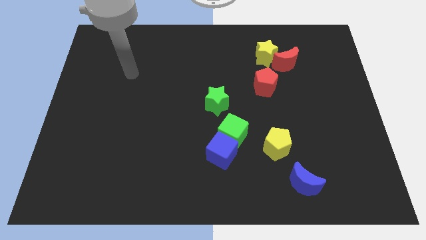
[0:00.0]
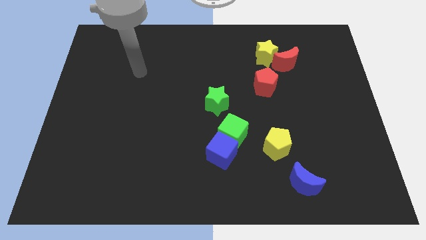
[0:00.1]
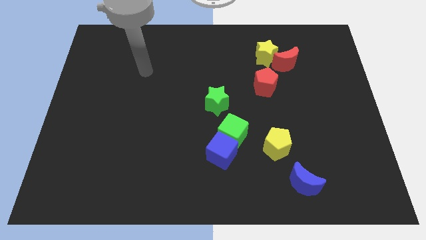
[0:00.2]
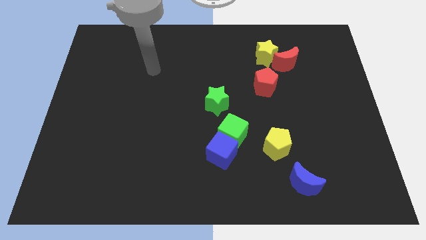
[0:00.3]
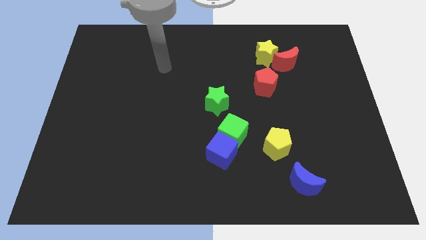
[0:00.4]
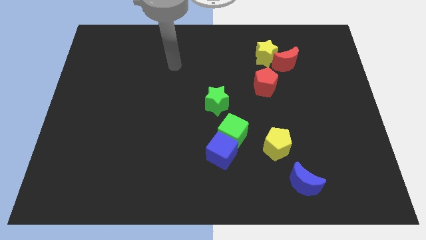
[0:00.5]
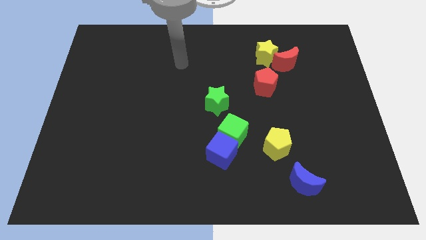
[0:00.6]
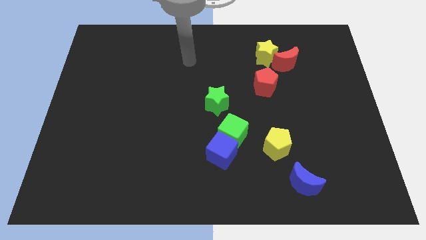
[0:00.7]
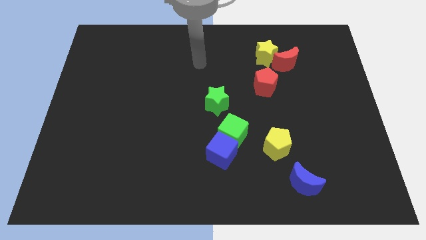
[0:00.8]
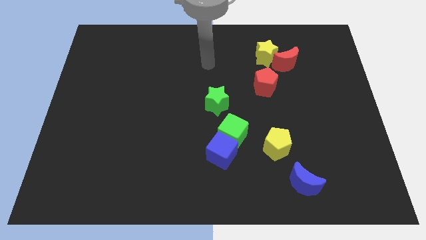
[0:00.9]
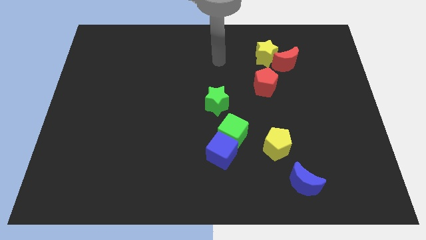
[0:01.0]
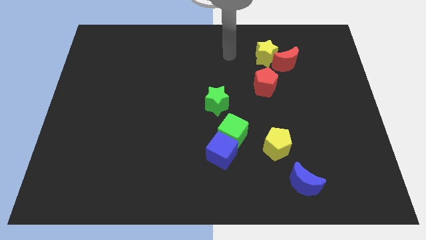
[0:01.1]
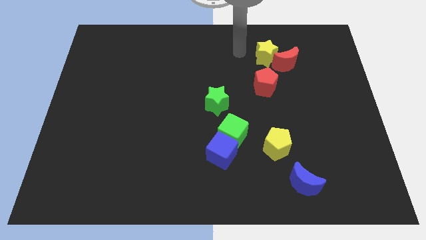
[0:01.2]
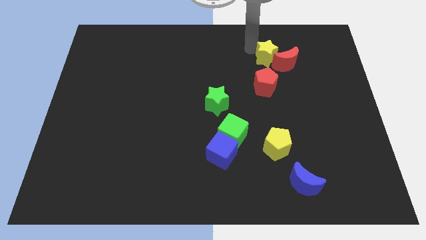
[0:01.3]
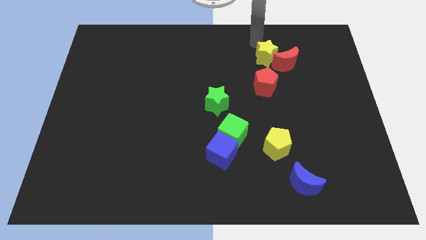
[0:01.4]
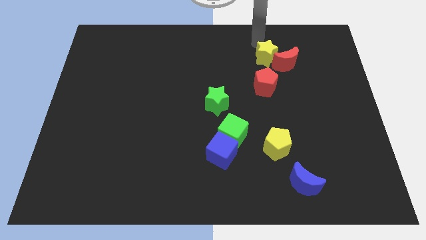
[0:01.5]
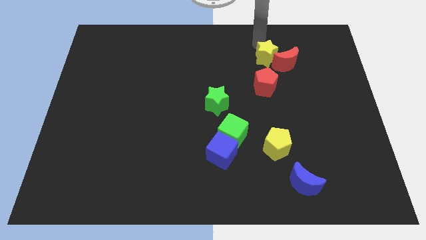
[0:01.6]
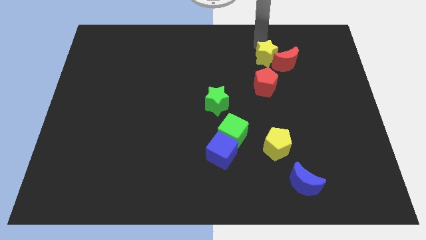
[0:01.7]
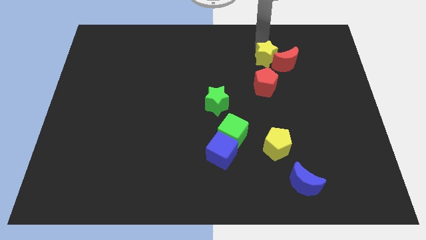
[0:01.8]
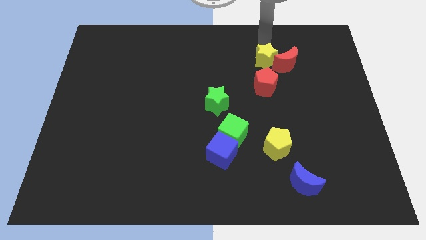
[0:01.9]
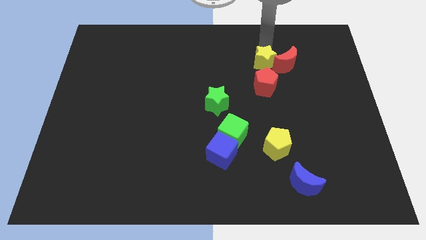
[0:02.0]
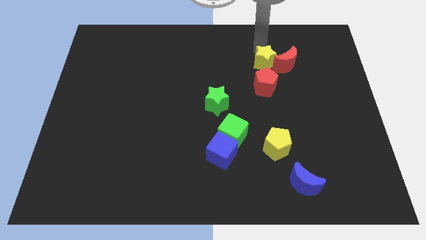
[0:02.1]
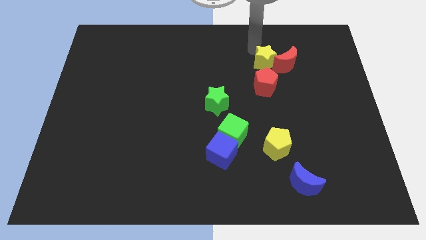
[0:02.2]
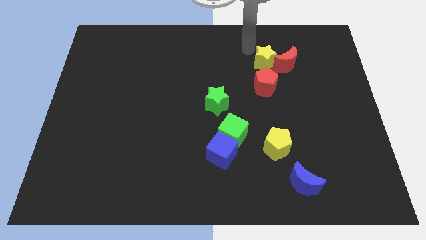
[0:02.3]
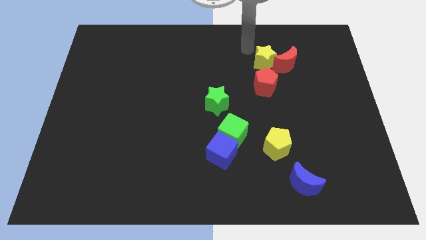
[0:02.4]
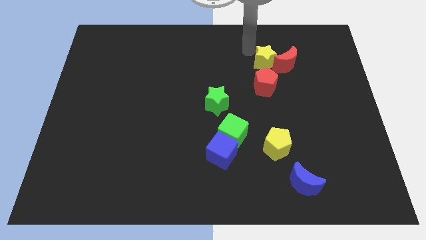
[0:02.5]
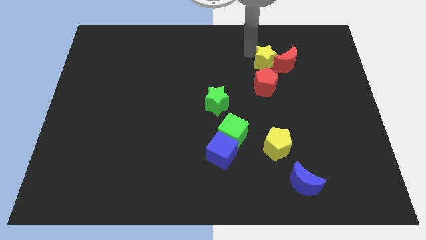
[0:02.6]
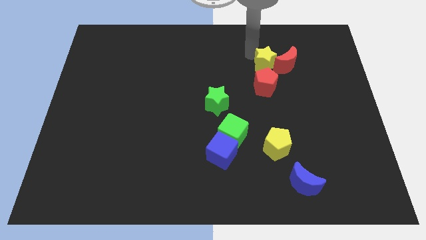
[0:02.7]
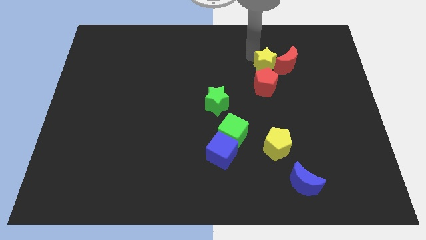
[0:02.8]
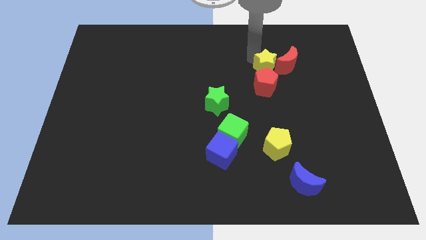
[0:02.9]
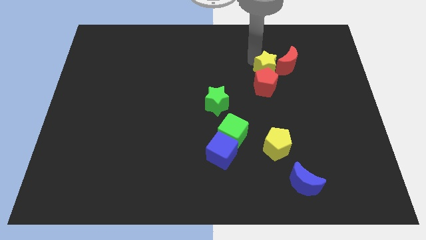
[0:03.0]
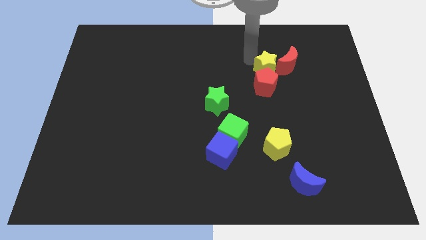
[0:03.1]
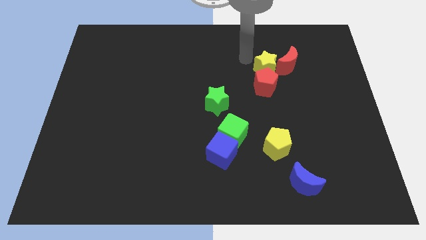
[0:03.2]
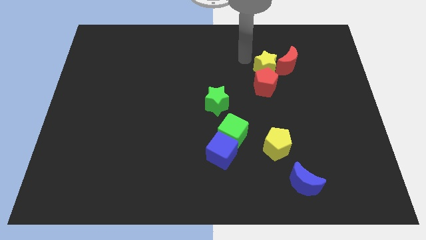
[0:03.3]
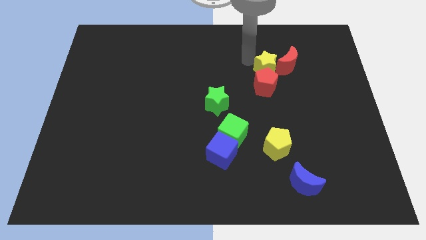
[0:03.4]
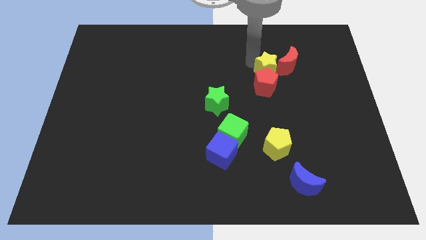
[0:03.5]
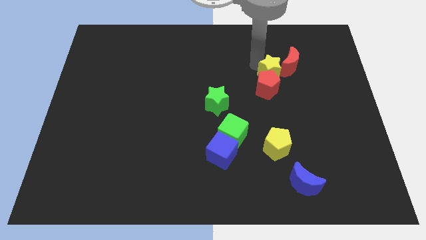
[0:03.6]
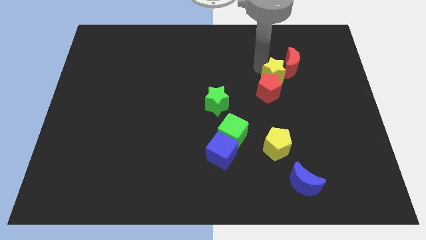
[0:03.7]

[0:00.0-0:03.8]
slightly slide the yellow star downwards

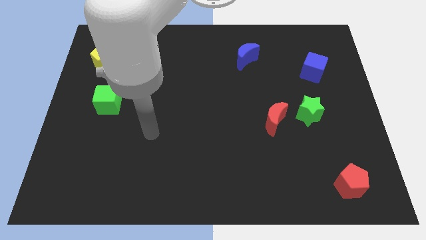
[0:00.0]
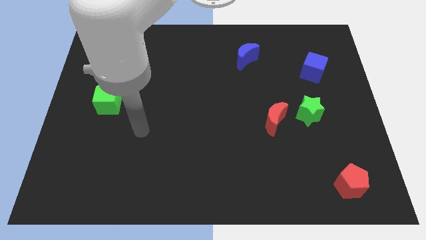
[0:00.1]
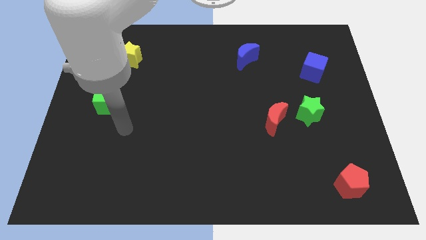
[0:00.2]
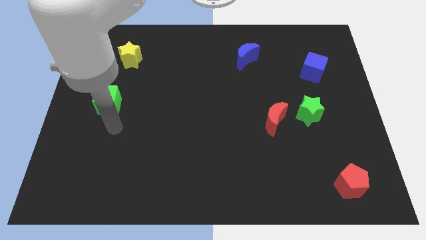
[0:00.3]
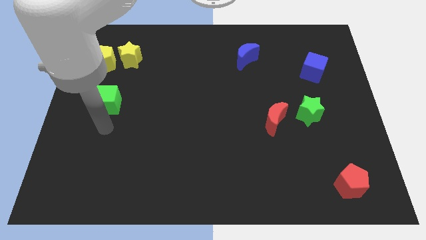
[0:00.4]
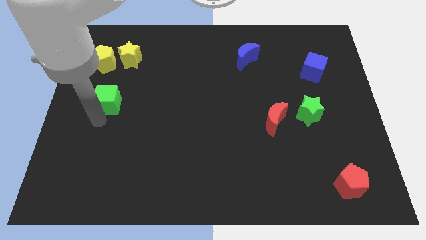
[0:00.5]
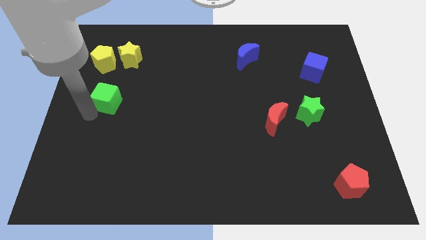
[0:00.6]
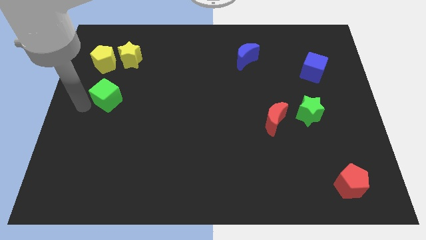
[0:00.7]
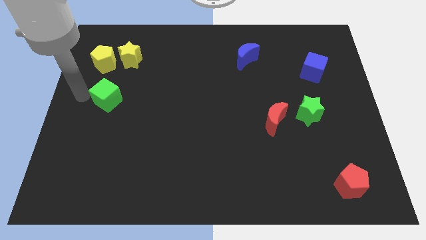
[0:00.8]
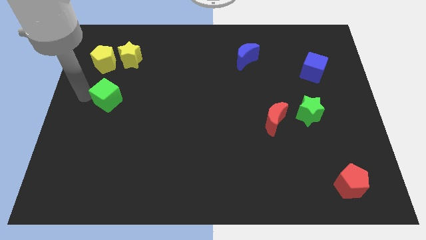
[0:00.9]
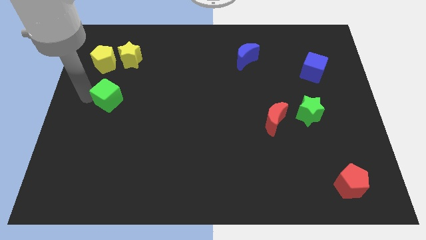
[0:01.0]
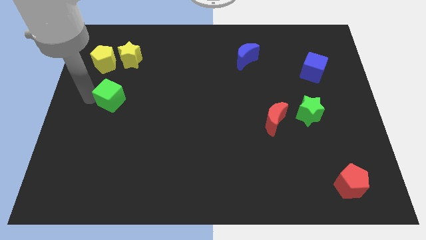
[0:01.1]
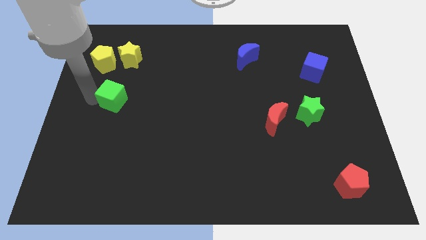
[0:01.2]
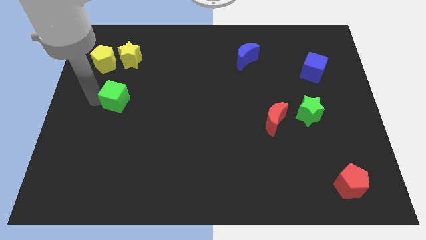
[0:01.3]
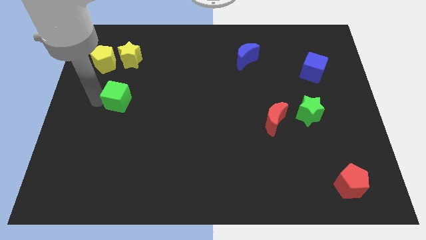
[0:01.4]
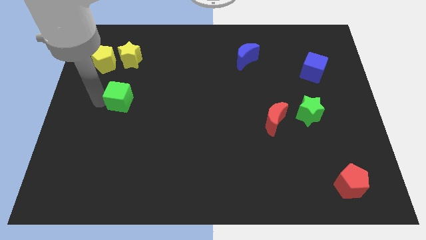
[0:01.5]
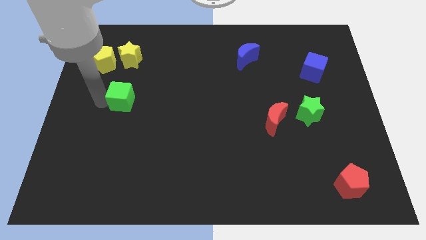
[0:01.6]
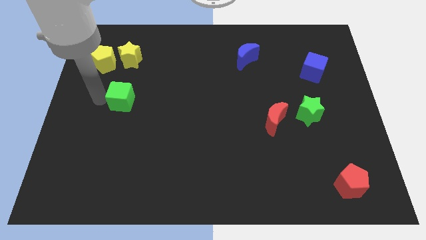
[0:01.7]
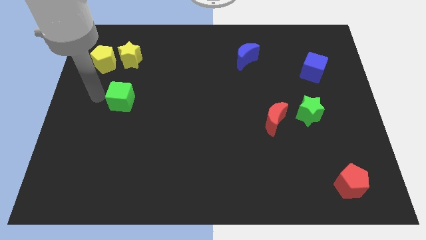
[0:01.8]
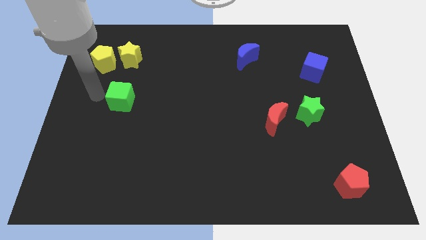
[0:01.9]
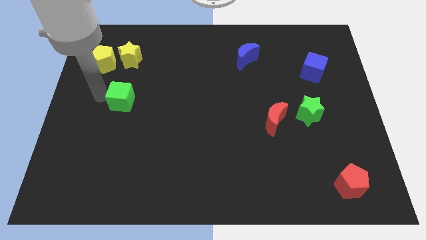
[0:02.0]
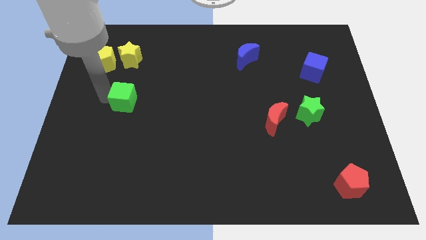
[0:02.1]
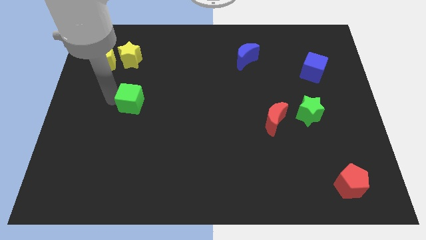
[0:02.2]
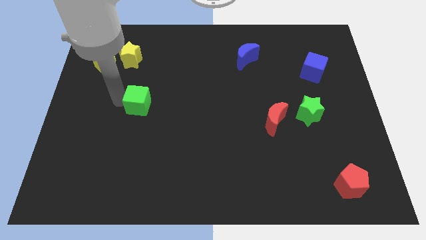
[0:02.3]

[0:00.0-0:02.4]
slide the green cube a little right

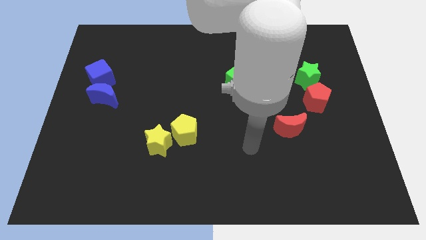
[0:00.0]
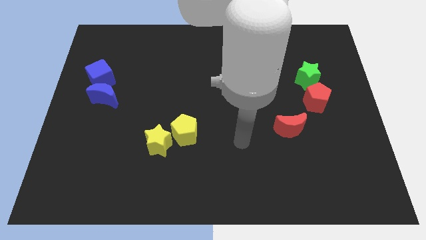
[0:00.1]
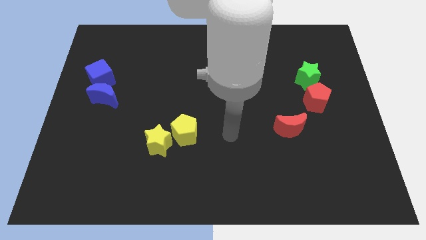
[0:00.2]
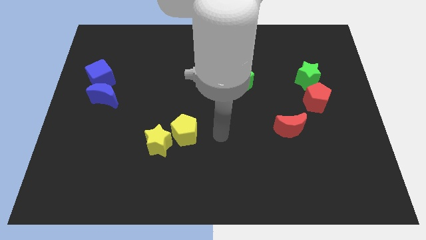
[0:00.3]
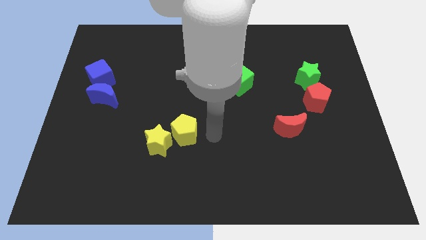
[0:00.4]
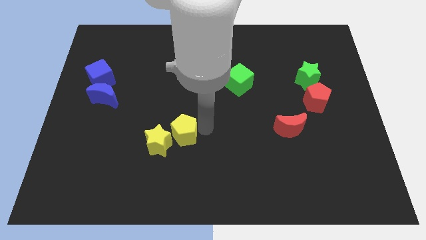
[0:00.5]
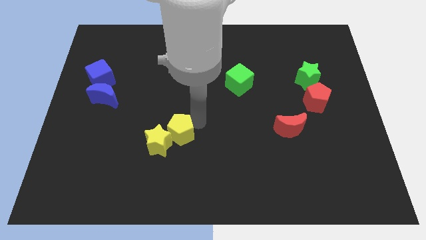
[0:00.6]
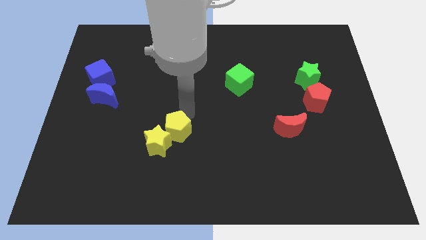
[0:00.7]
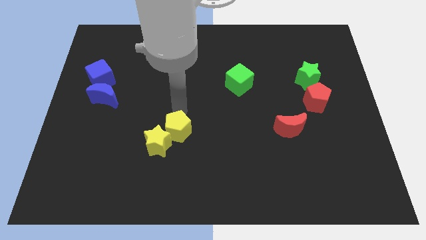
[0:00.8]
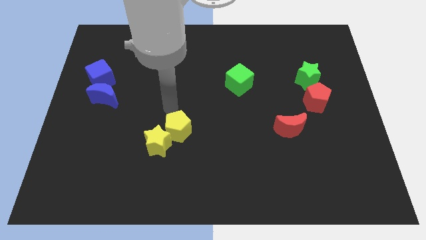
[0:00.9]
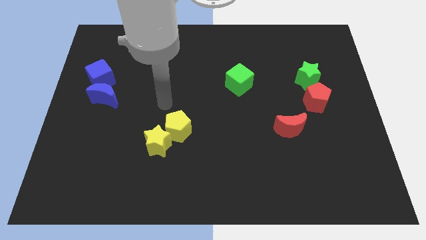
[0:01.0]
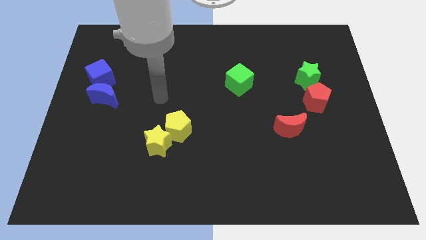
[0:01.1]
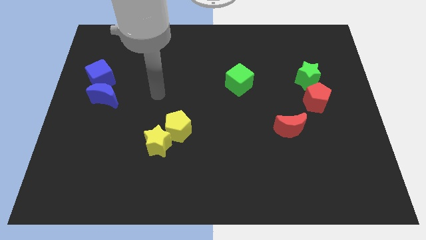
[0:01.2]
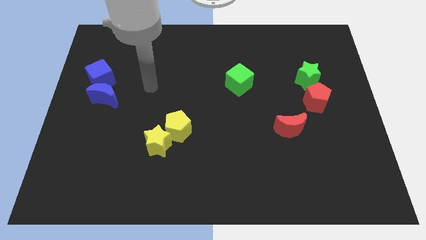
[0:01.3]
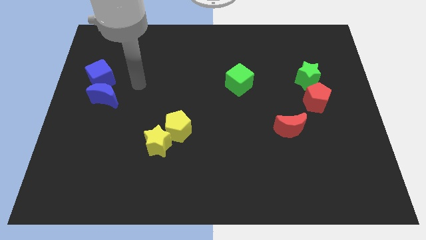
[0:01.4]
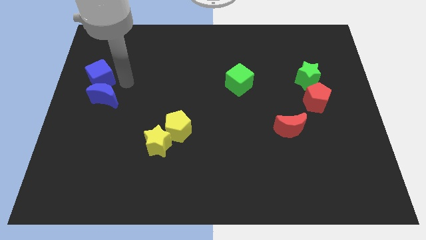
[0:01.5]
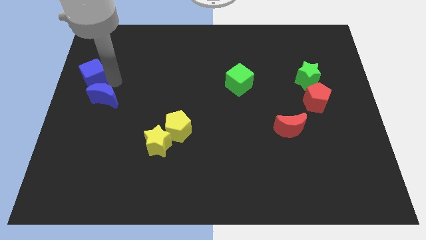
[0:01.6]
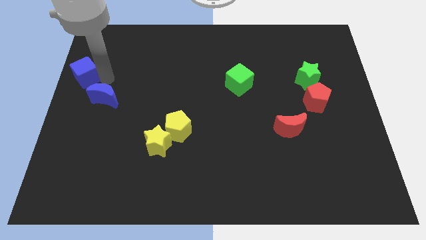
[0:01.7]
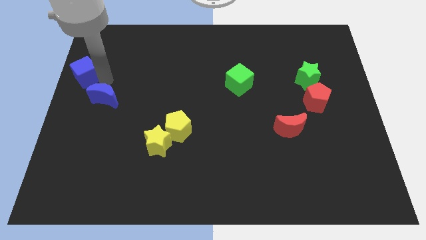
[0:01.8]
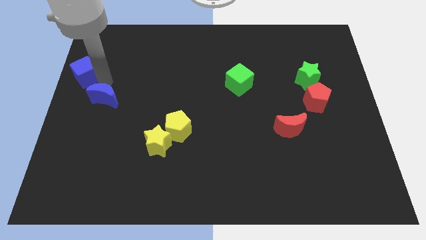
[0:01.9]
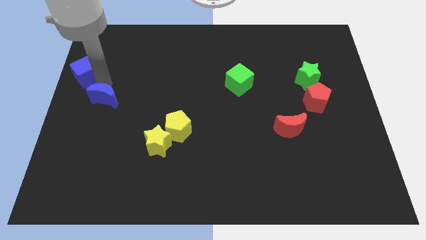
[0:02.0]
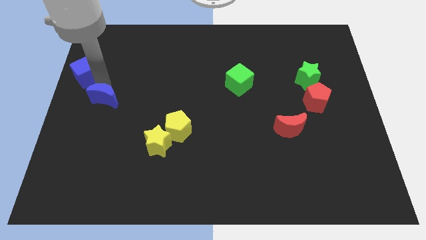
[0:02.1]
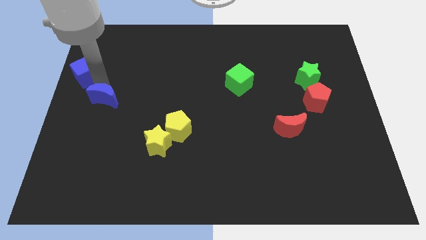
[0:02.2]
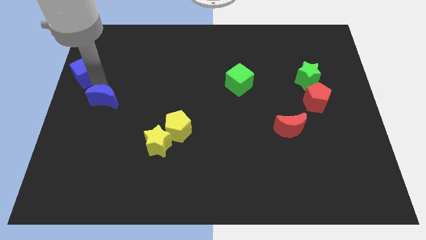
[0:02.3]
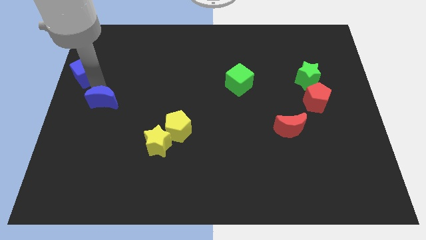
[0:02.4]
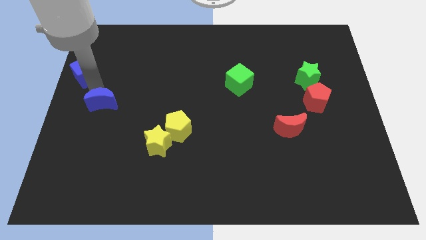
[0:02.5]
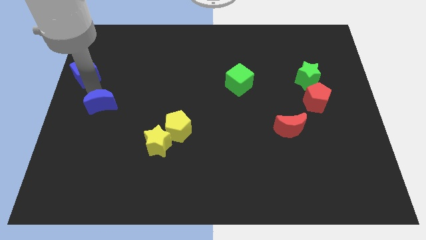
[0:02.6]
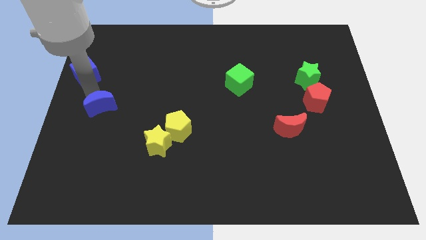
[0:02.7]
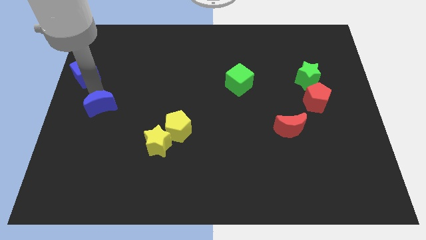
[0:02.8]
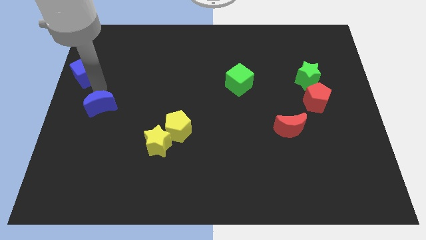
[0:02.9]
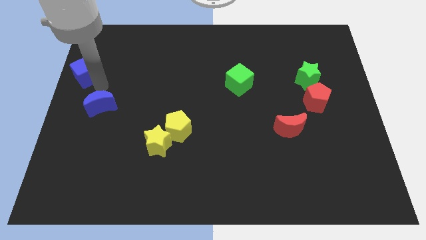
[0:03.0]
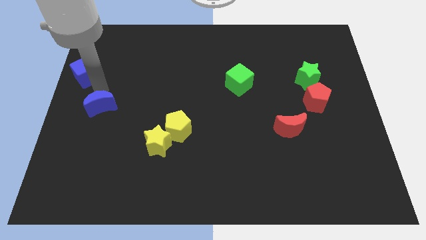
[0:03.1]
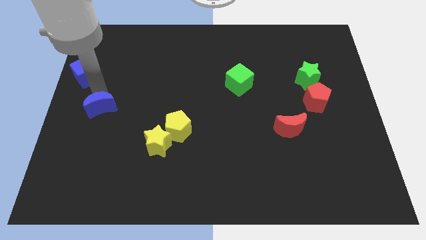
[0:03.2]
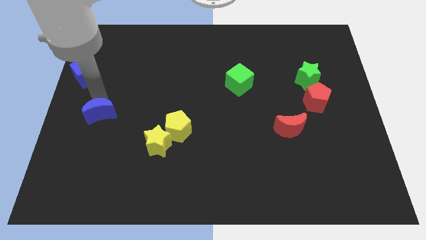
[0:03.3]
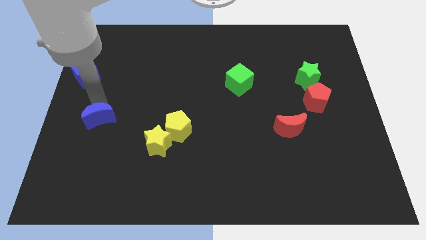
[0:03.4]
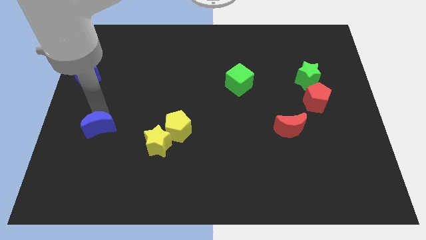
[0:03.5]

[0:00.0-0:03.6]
push the blue moon downwards a bit
